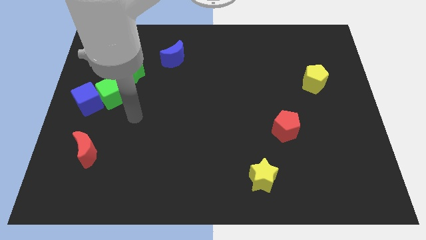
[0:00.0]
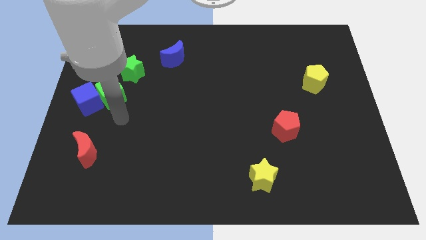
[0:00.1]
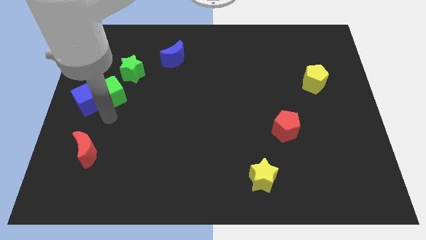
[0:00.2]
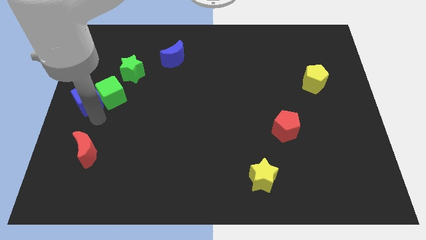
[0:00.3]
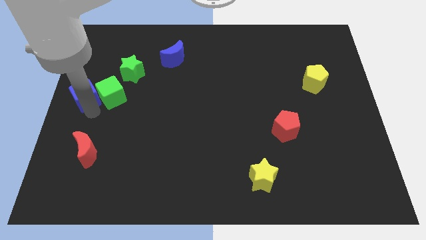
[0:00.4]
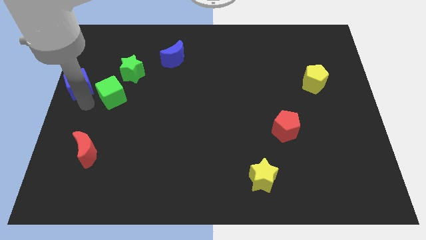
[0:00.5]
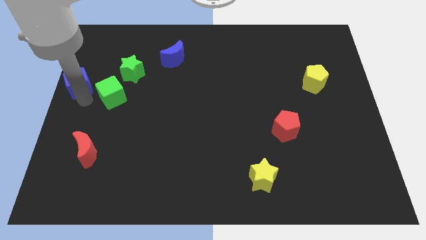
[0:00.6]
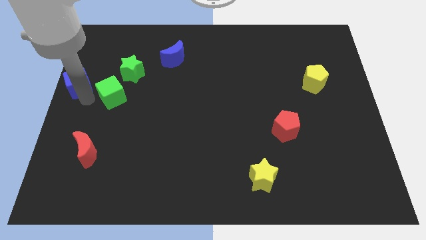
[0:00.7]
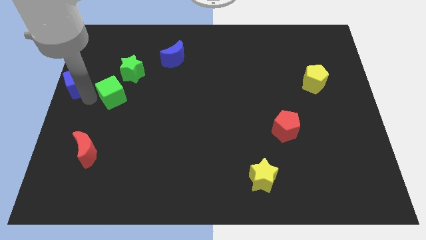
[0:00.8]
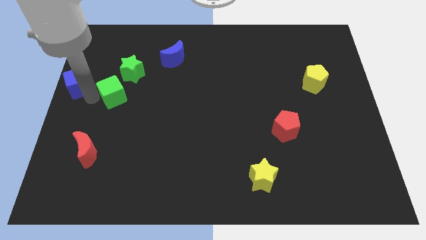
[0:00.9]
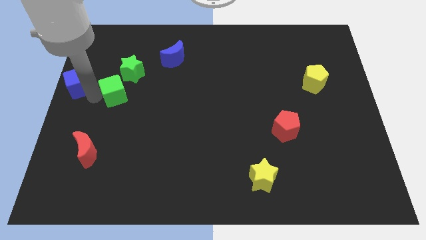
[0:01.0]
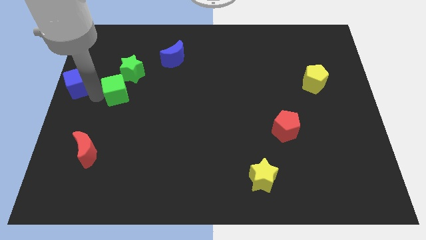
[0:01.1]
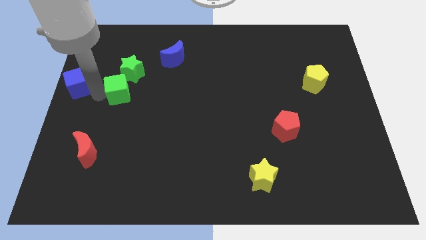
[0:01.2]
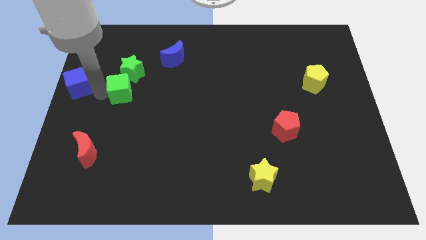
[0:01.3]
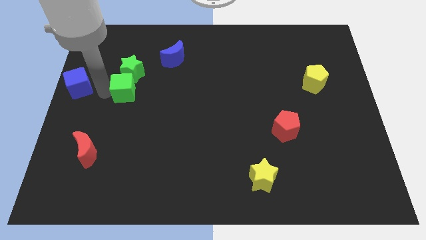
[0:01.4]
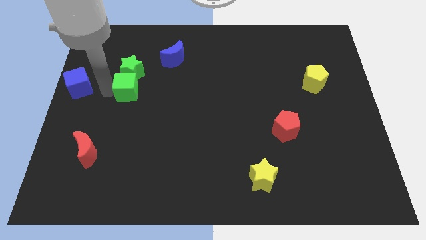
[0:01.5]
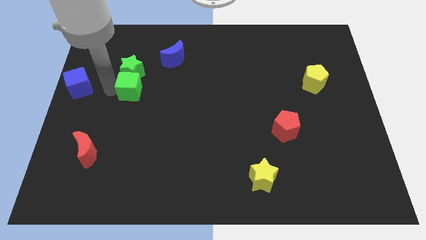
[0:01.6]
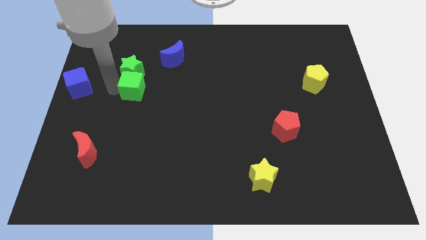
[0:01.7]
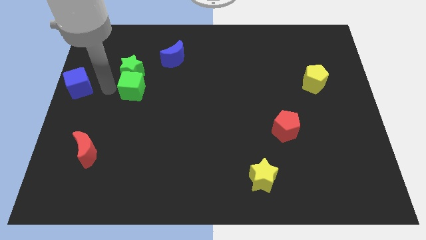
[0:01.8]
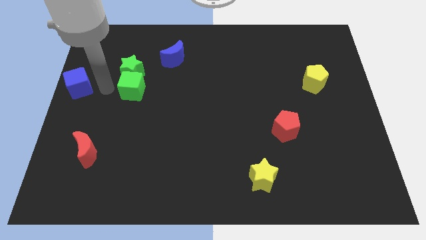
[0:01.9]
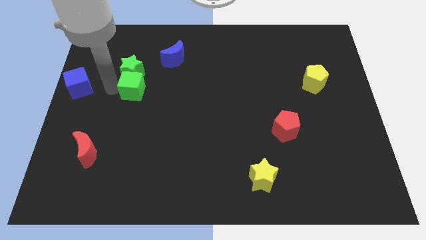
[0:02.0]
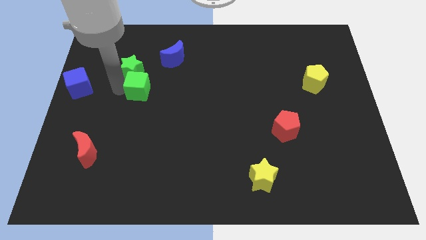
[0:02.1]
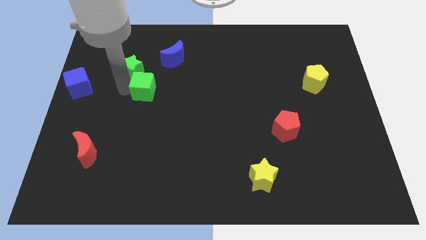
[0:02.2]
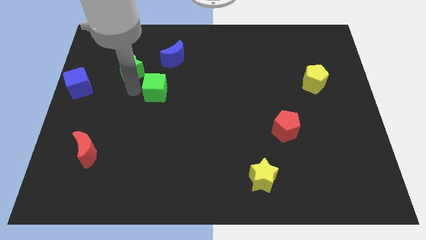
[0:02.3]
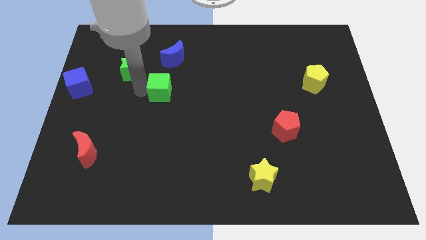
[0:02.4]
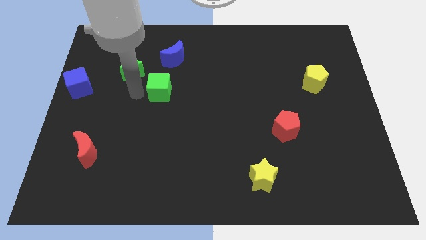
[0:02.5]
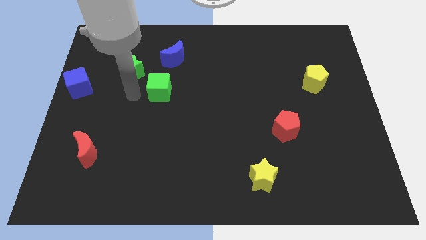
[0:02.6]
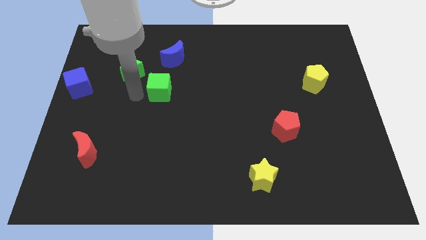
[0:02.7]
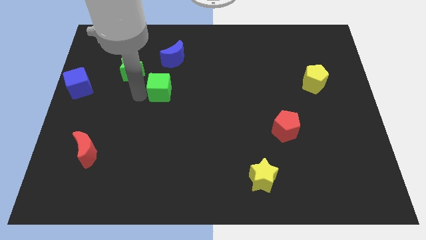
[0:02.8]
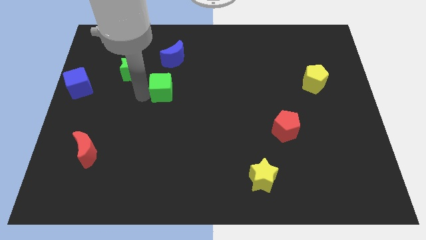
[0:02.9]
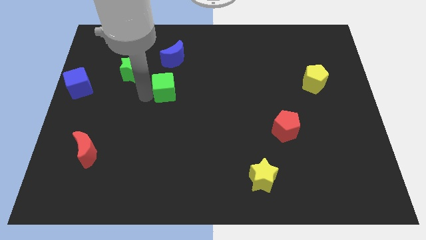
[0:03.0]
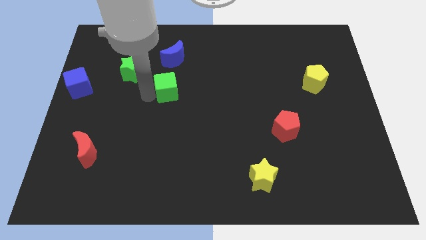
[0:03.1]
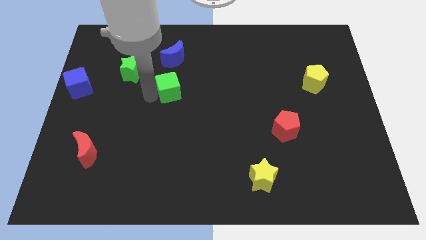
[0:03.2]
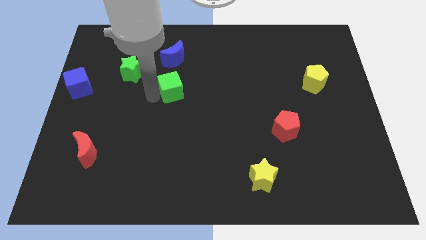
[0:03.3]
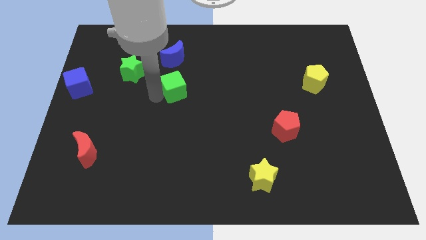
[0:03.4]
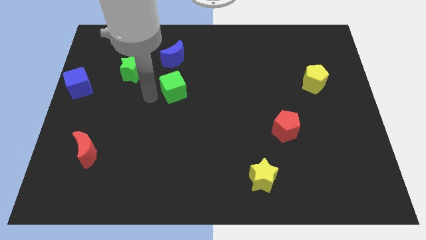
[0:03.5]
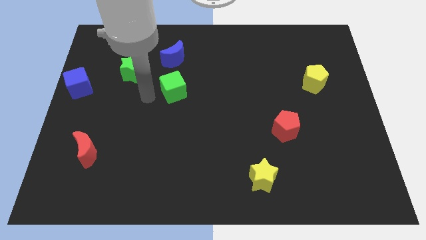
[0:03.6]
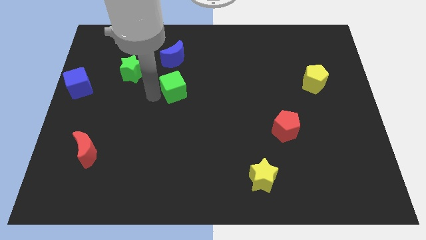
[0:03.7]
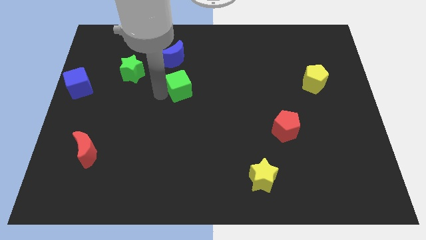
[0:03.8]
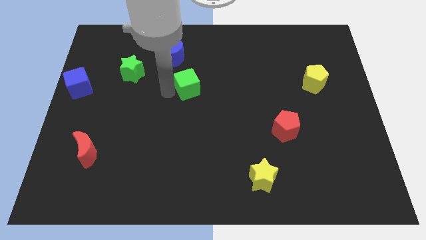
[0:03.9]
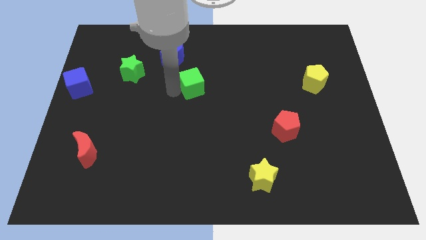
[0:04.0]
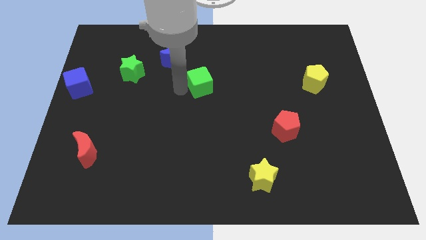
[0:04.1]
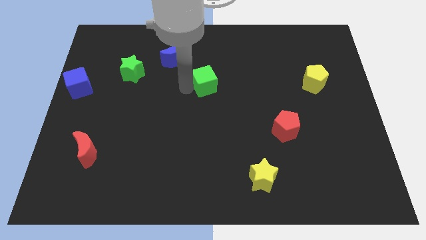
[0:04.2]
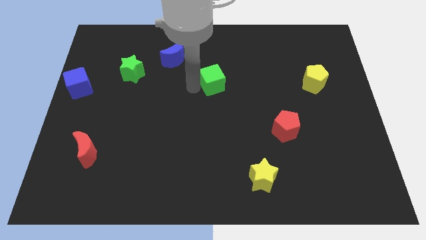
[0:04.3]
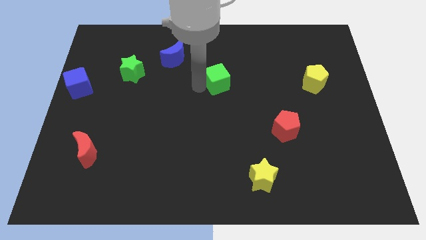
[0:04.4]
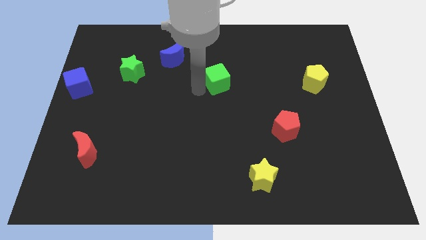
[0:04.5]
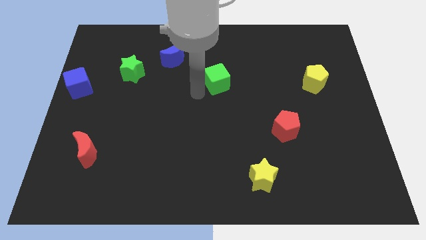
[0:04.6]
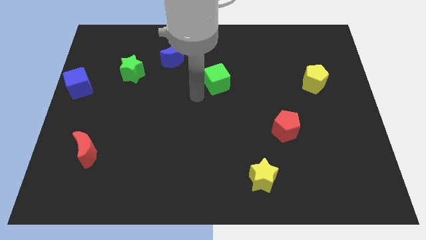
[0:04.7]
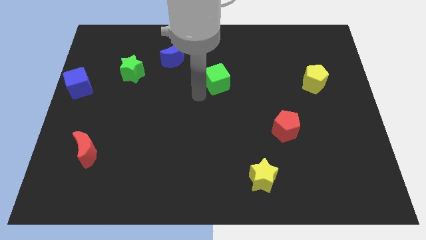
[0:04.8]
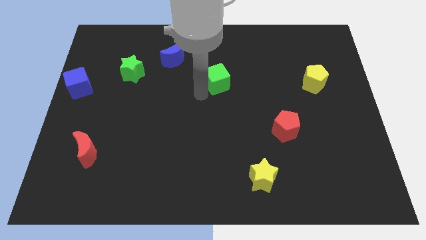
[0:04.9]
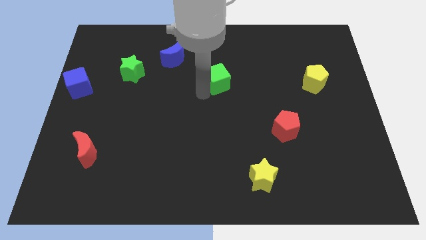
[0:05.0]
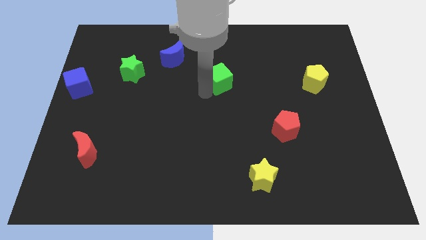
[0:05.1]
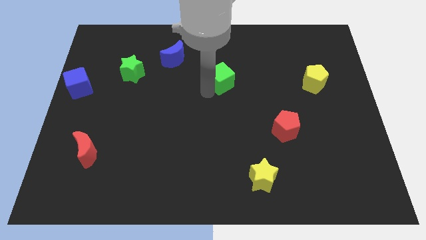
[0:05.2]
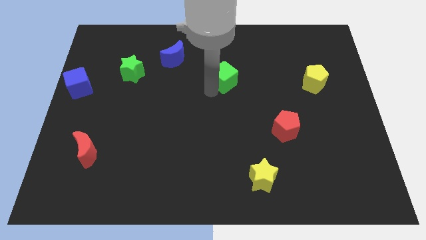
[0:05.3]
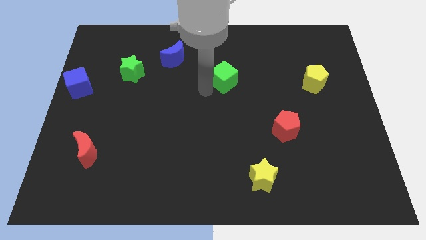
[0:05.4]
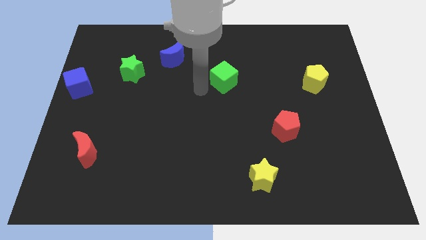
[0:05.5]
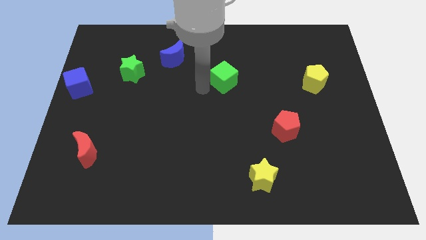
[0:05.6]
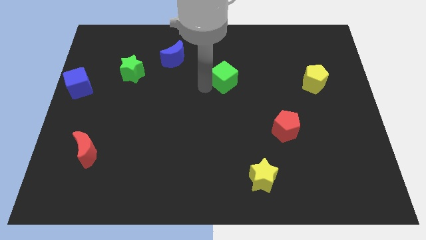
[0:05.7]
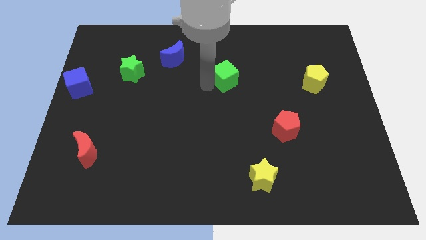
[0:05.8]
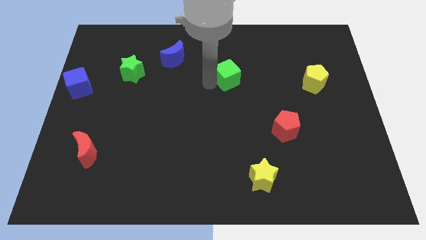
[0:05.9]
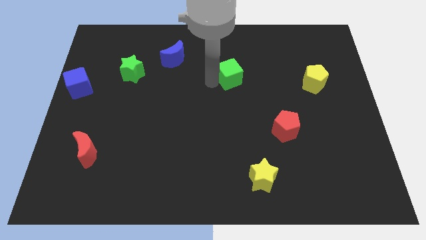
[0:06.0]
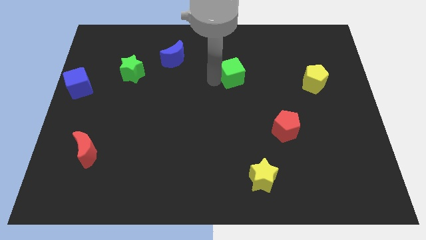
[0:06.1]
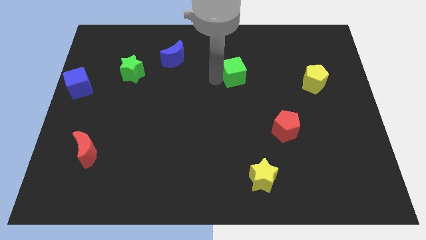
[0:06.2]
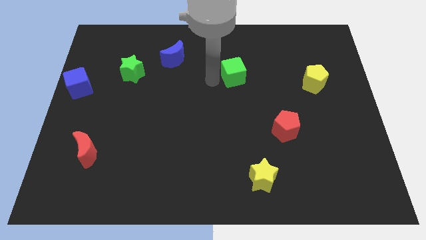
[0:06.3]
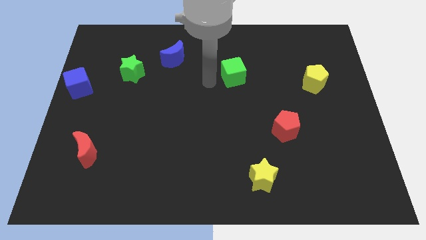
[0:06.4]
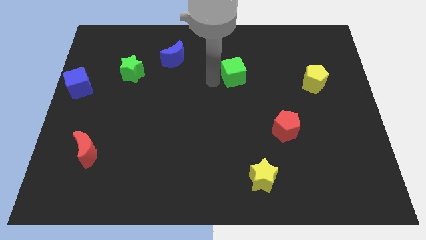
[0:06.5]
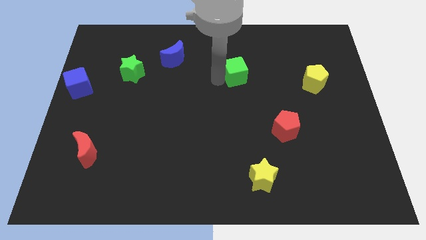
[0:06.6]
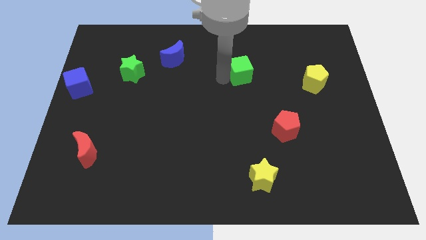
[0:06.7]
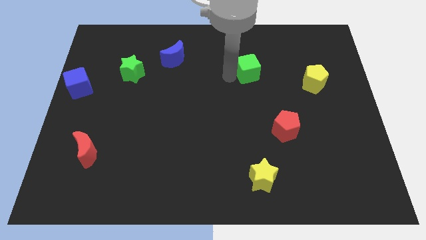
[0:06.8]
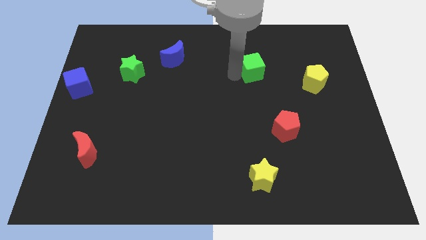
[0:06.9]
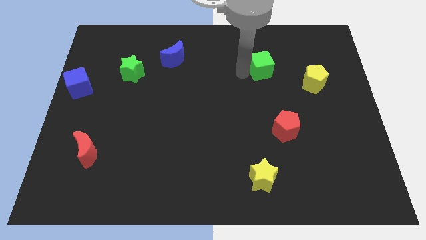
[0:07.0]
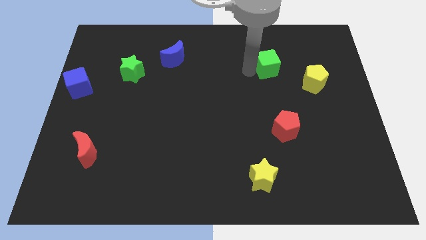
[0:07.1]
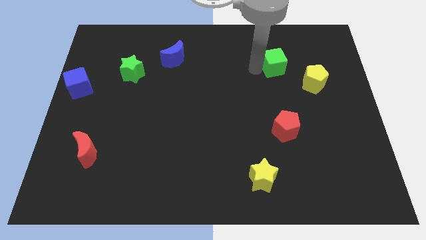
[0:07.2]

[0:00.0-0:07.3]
put the green cube diagonally up and to the left of the yellow pentagon
